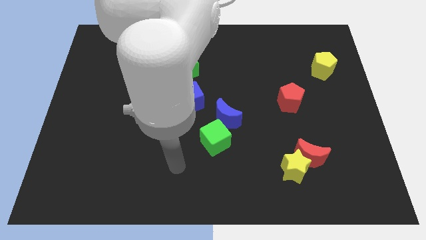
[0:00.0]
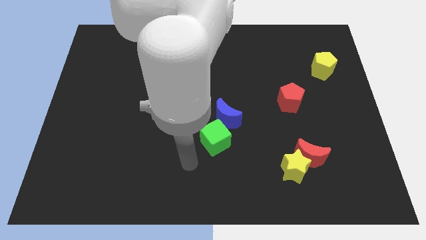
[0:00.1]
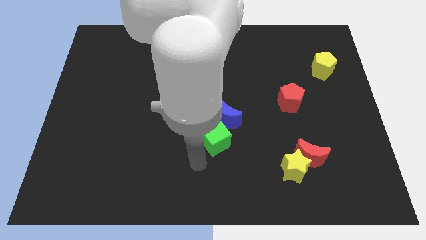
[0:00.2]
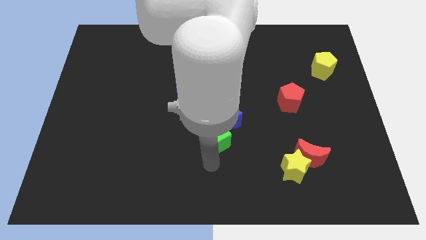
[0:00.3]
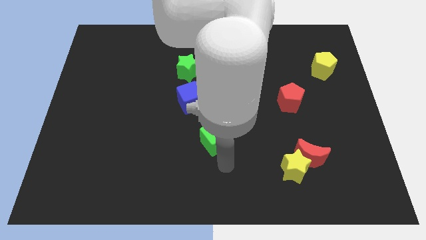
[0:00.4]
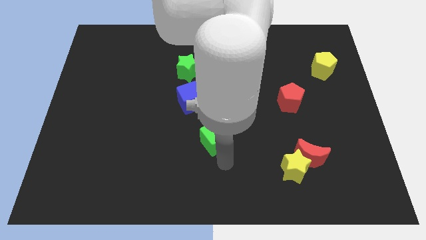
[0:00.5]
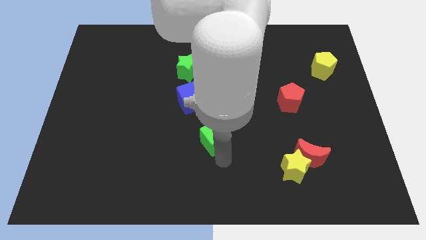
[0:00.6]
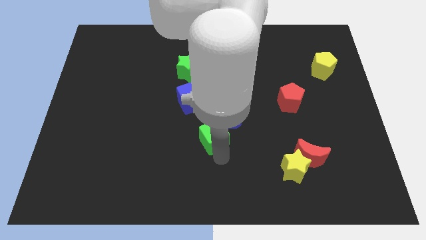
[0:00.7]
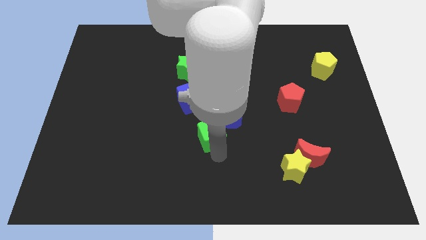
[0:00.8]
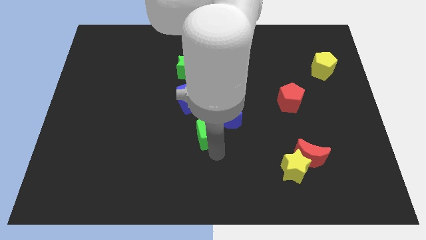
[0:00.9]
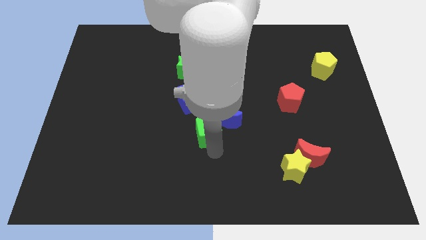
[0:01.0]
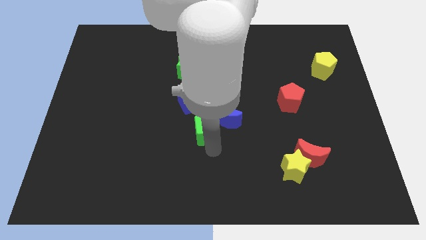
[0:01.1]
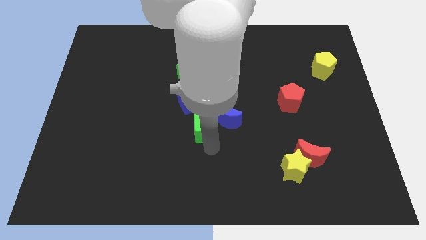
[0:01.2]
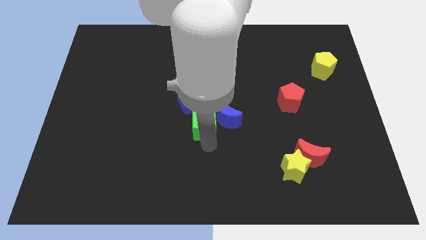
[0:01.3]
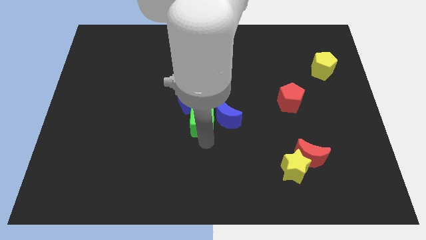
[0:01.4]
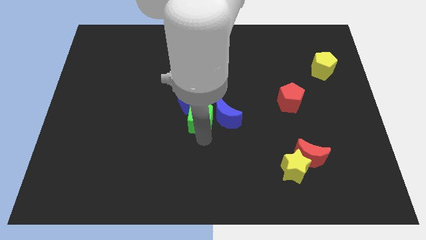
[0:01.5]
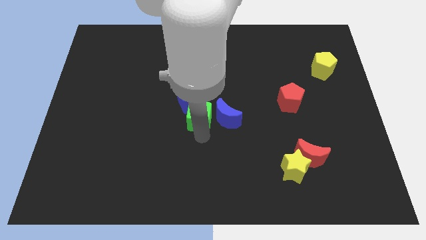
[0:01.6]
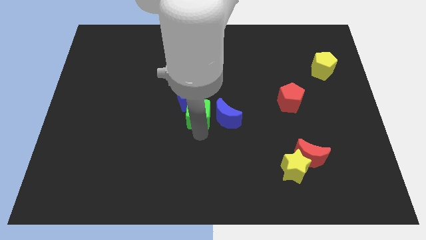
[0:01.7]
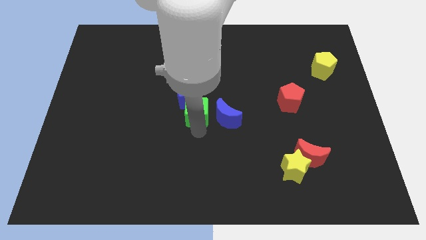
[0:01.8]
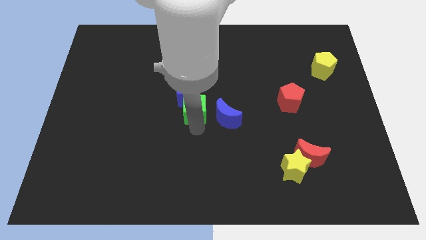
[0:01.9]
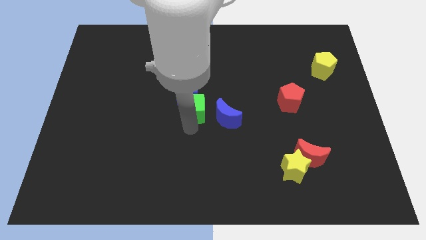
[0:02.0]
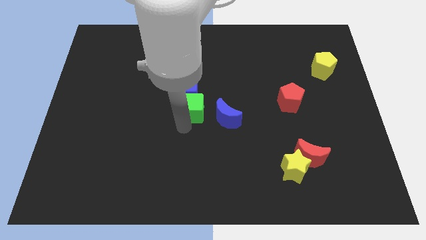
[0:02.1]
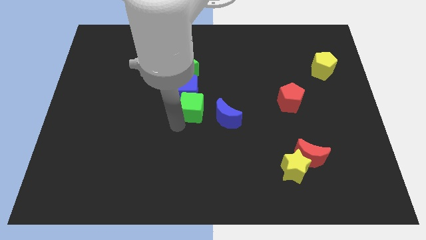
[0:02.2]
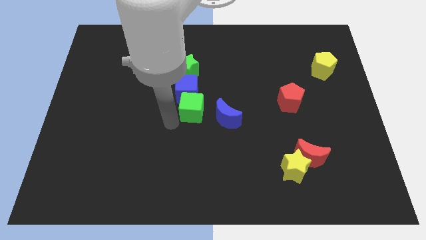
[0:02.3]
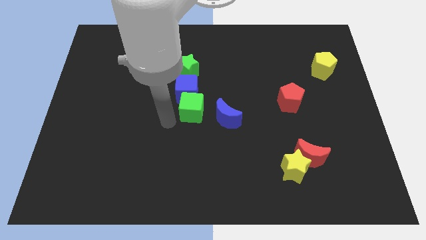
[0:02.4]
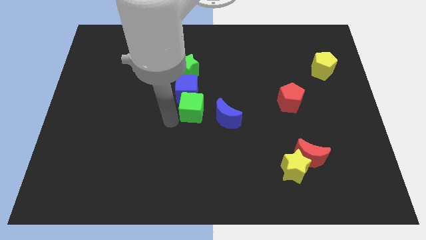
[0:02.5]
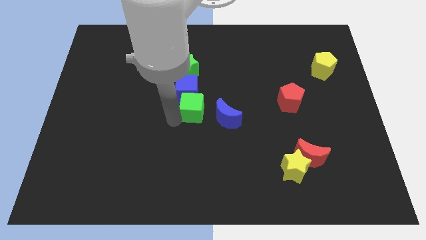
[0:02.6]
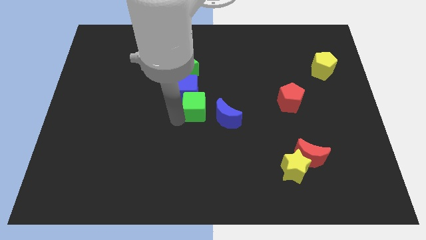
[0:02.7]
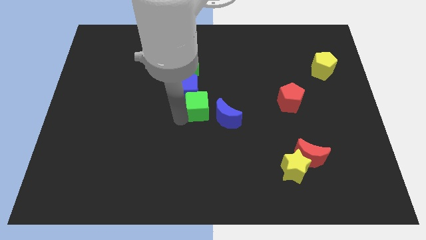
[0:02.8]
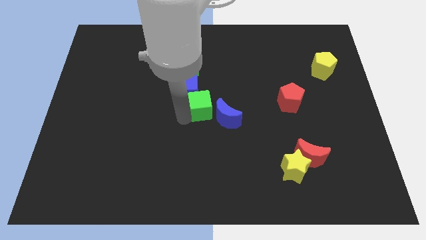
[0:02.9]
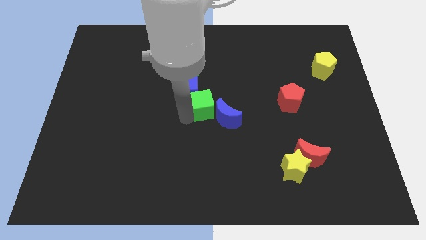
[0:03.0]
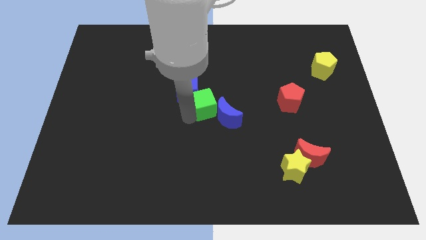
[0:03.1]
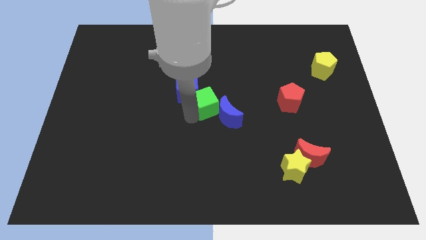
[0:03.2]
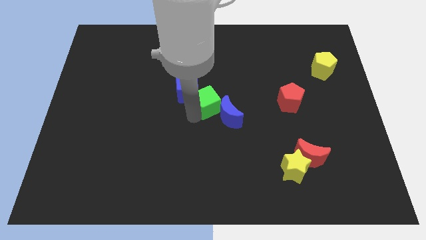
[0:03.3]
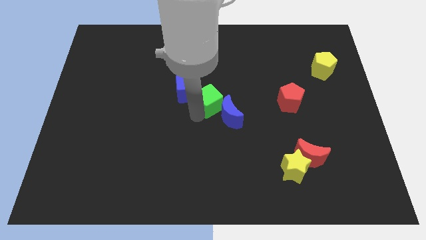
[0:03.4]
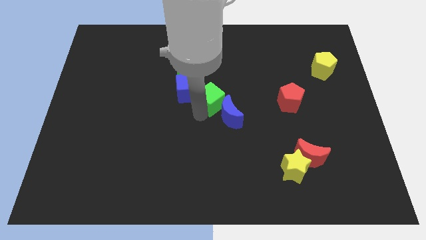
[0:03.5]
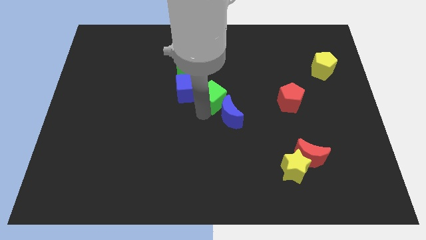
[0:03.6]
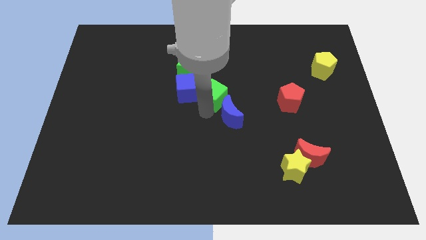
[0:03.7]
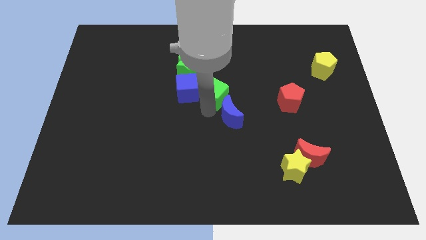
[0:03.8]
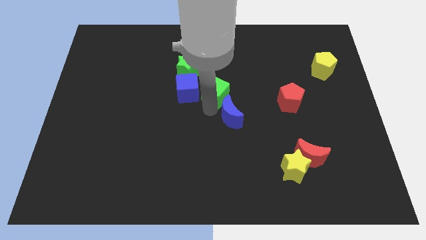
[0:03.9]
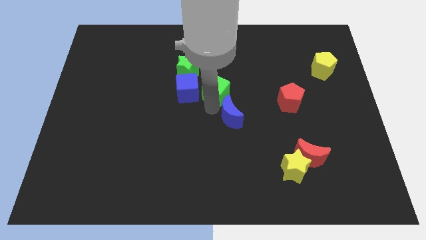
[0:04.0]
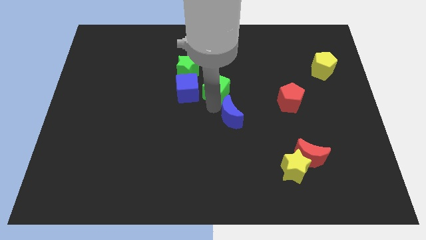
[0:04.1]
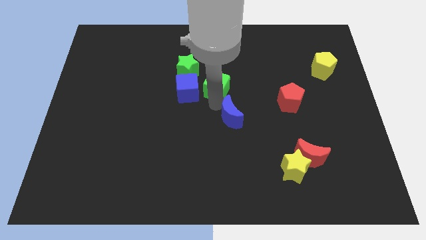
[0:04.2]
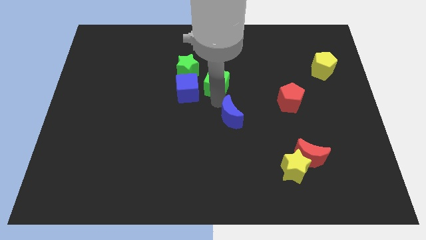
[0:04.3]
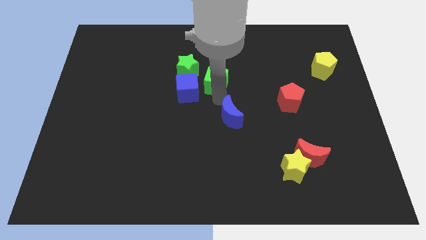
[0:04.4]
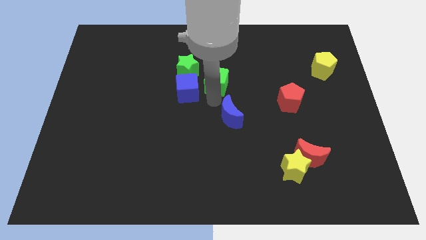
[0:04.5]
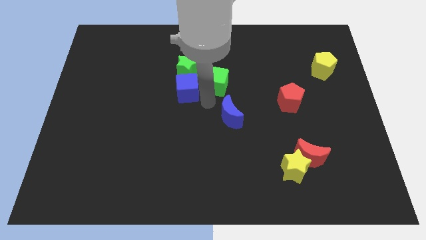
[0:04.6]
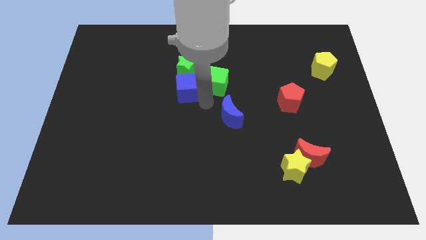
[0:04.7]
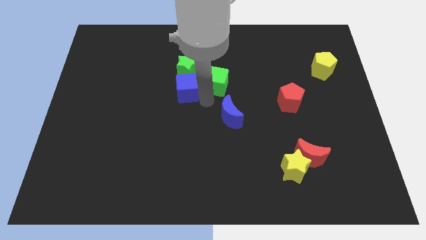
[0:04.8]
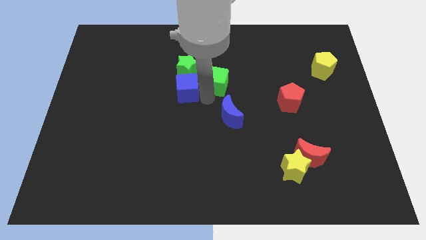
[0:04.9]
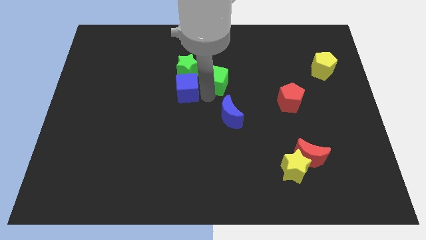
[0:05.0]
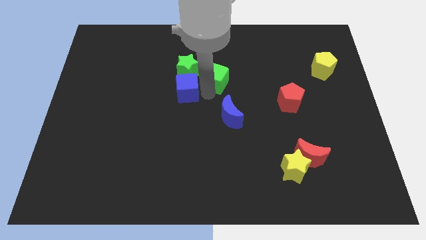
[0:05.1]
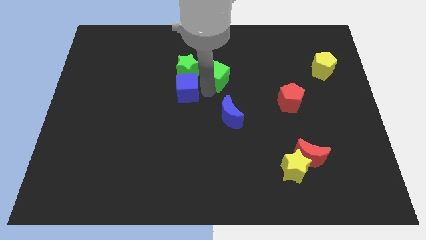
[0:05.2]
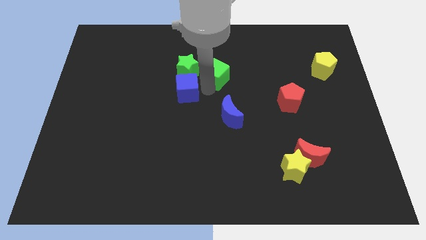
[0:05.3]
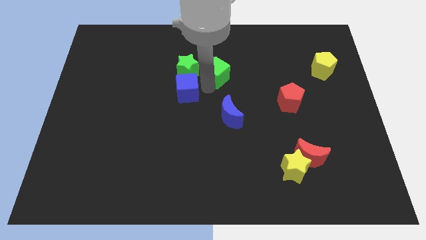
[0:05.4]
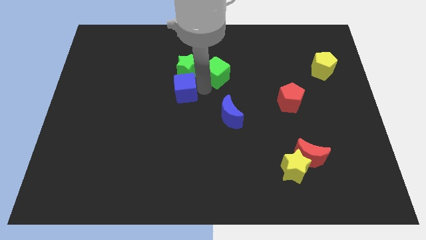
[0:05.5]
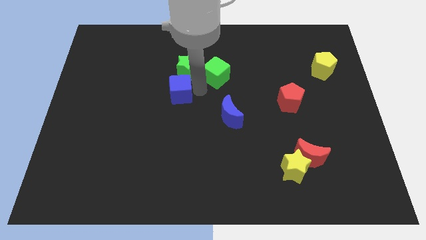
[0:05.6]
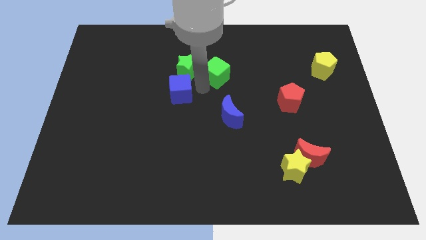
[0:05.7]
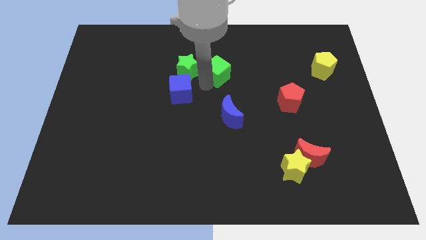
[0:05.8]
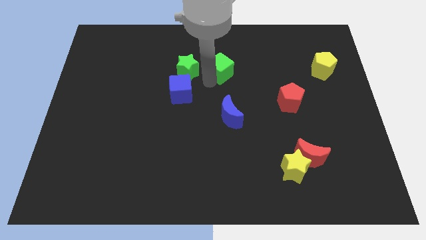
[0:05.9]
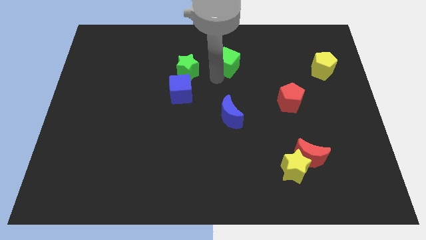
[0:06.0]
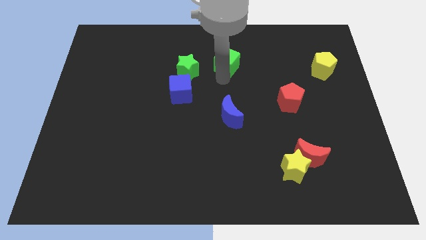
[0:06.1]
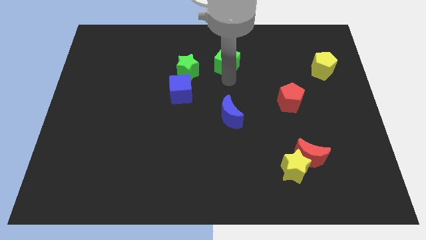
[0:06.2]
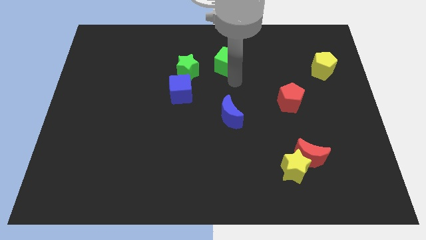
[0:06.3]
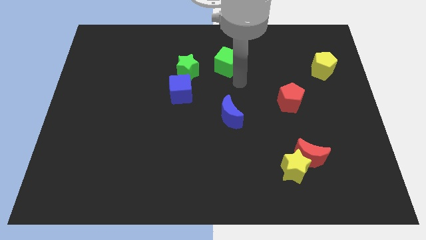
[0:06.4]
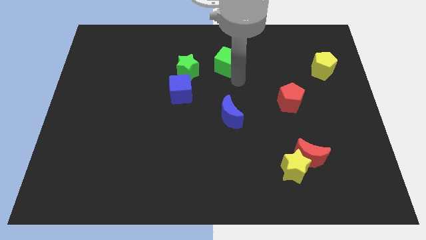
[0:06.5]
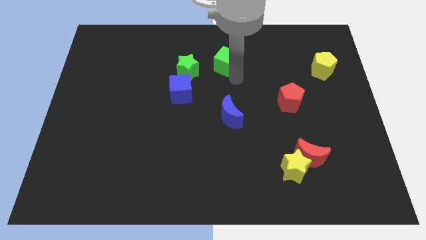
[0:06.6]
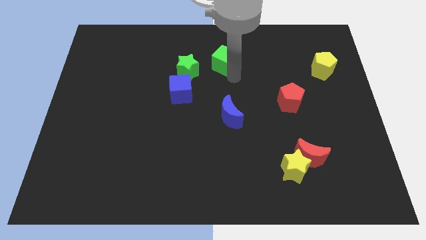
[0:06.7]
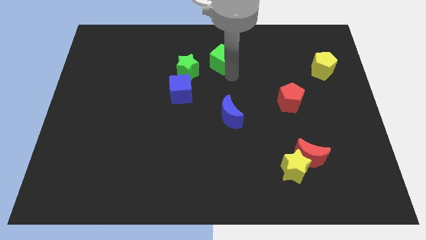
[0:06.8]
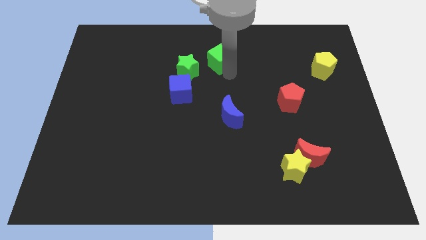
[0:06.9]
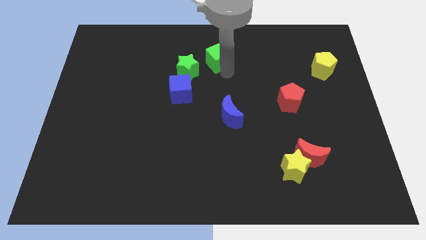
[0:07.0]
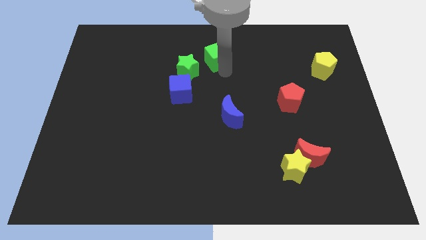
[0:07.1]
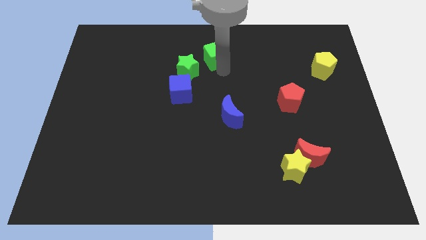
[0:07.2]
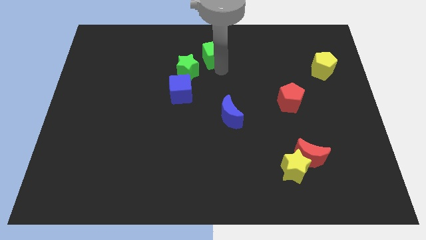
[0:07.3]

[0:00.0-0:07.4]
push the green cube to the towards your base
